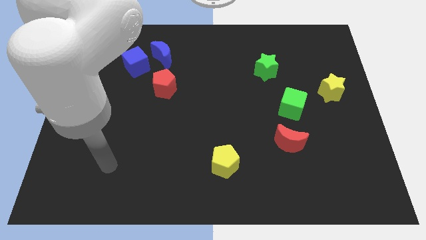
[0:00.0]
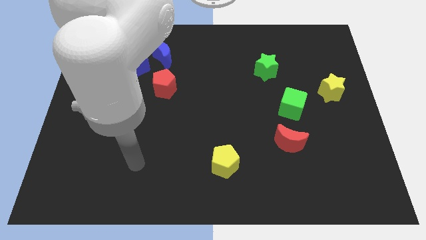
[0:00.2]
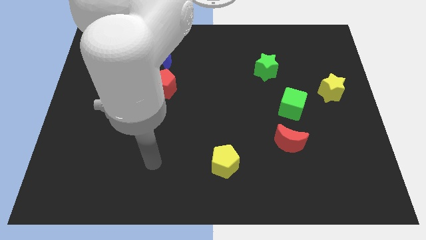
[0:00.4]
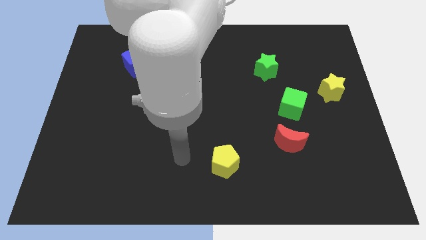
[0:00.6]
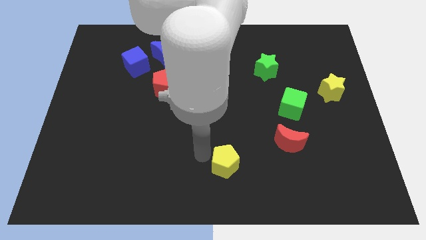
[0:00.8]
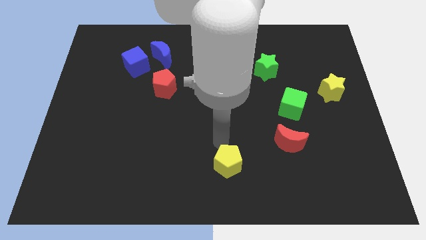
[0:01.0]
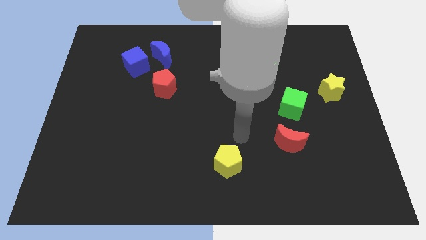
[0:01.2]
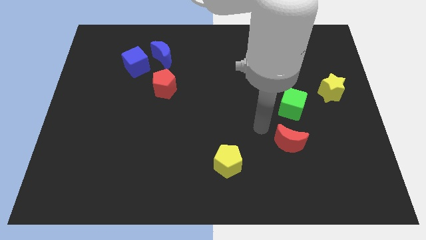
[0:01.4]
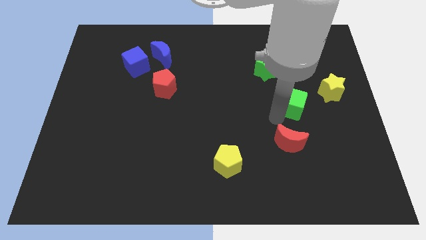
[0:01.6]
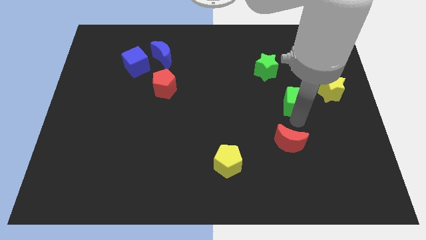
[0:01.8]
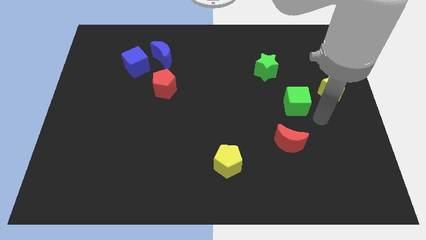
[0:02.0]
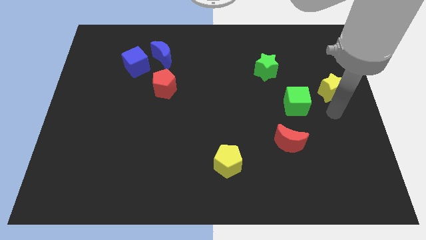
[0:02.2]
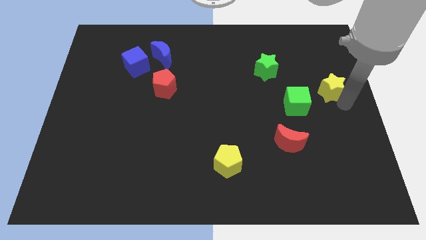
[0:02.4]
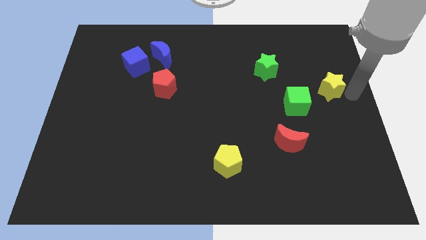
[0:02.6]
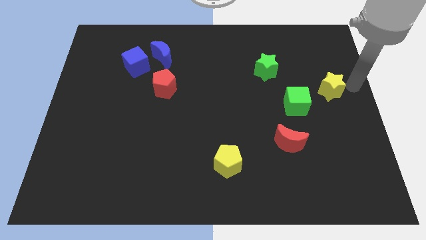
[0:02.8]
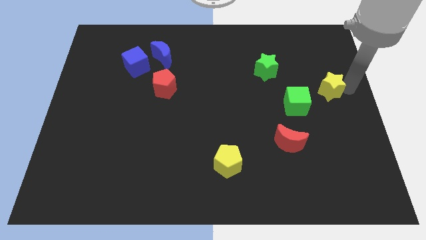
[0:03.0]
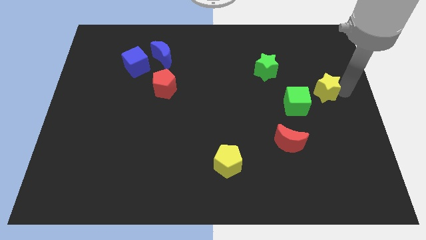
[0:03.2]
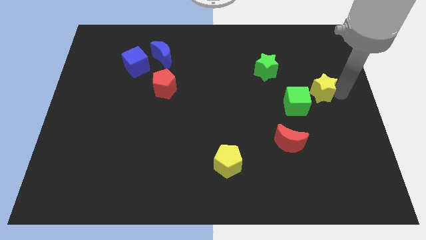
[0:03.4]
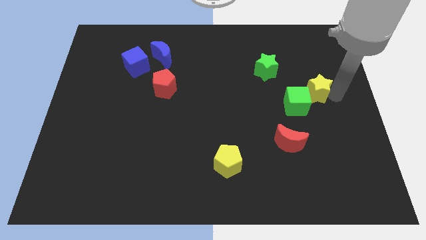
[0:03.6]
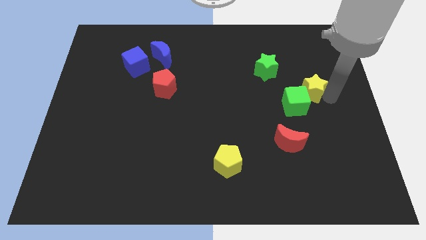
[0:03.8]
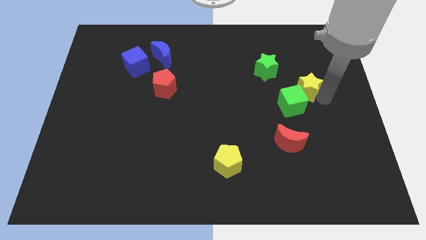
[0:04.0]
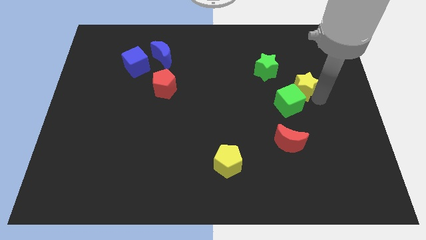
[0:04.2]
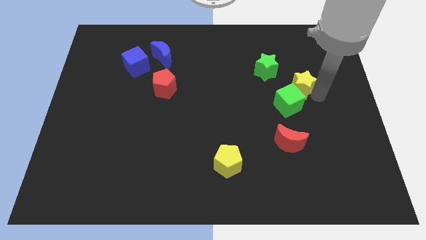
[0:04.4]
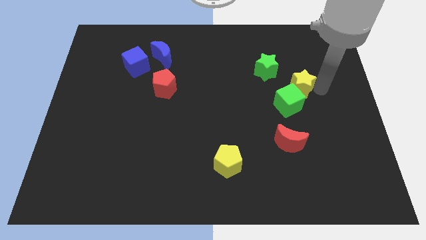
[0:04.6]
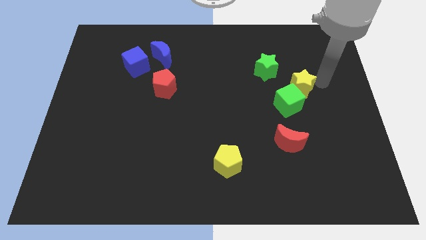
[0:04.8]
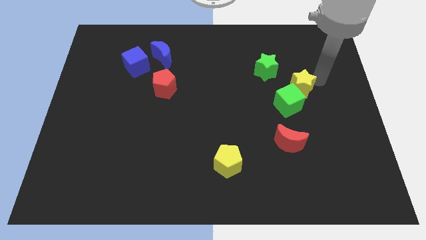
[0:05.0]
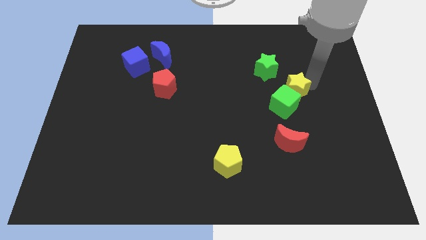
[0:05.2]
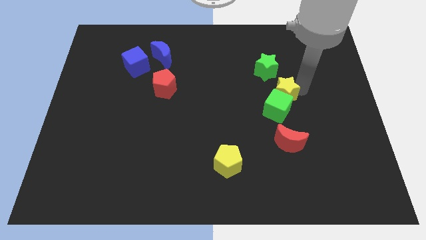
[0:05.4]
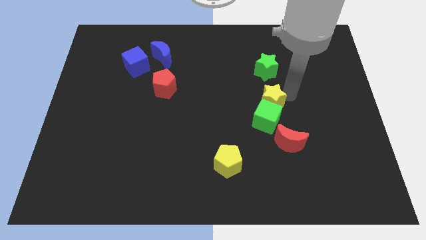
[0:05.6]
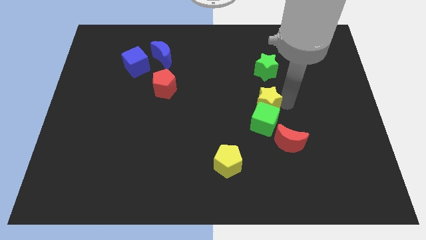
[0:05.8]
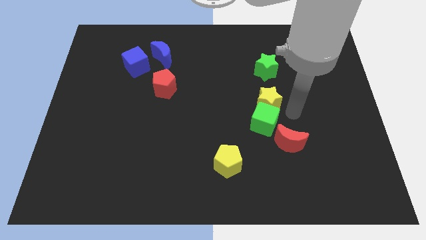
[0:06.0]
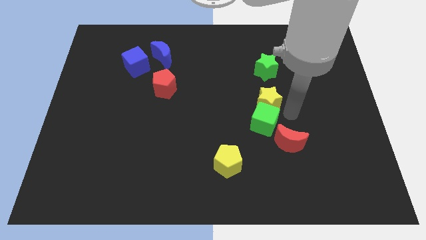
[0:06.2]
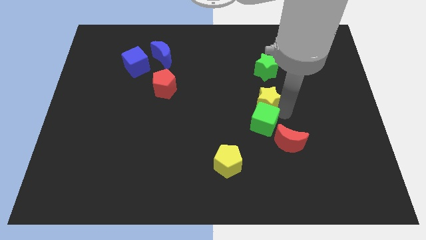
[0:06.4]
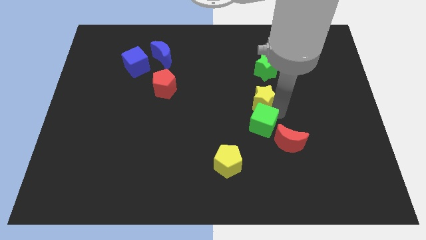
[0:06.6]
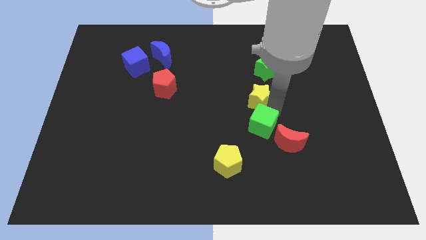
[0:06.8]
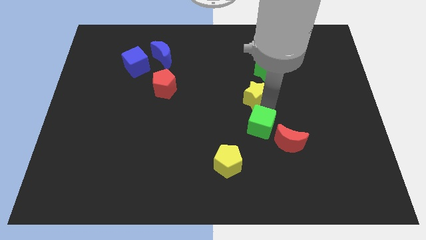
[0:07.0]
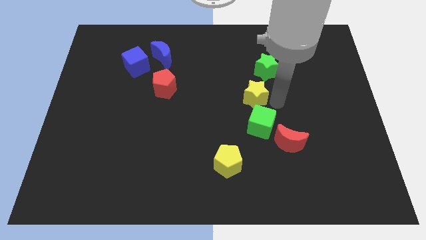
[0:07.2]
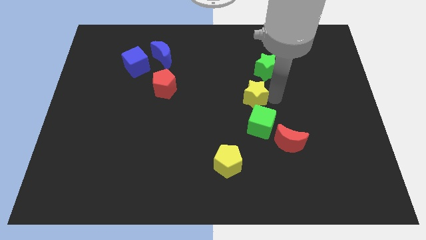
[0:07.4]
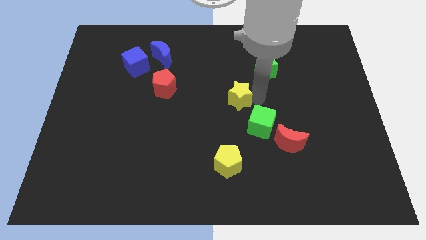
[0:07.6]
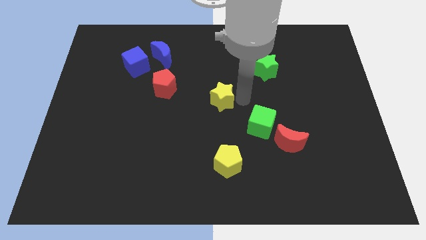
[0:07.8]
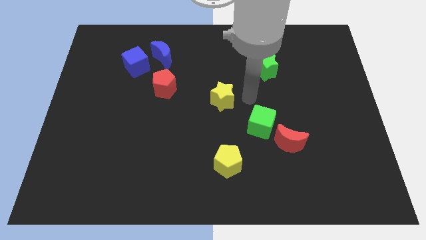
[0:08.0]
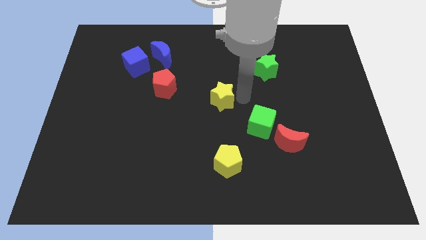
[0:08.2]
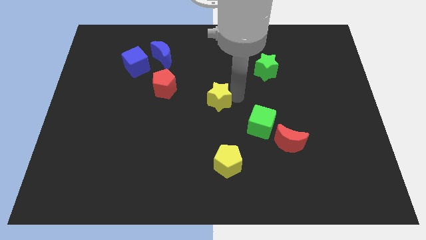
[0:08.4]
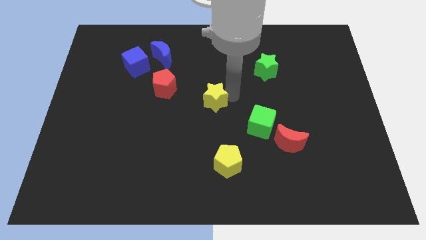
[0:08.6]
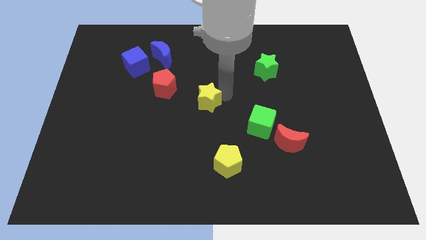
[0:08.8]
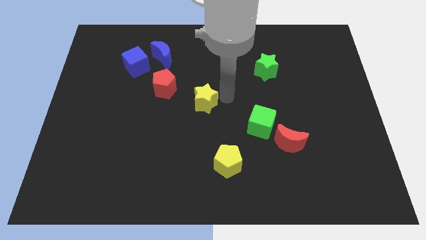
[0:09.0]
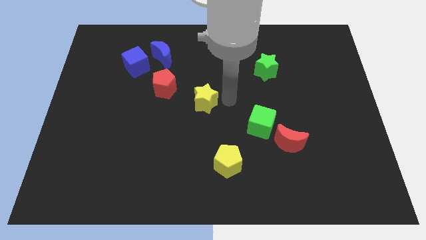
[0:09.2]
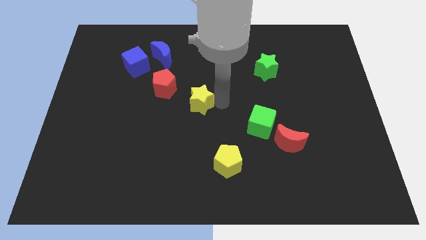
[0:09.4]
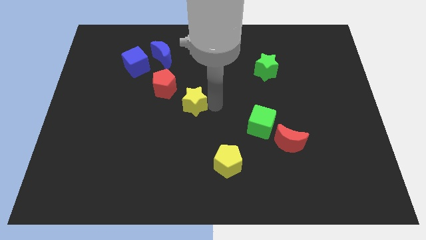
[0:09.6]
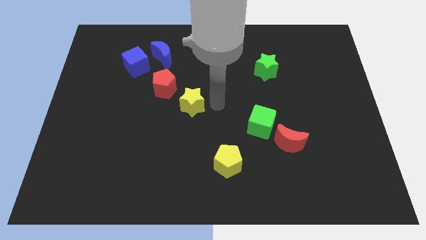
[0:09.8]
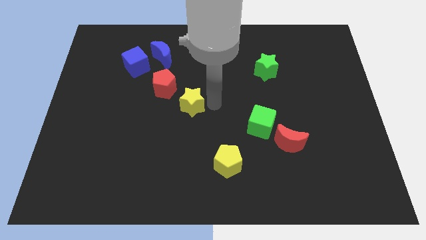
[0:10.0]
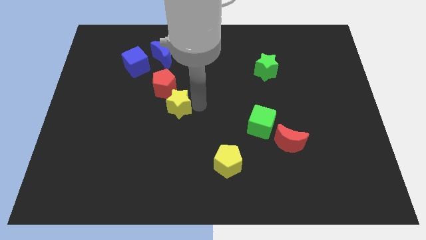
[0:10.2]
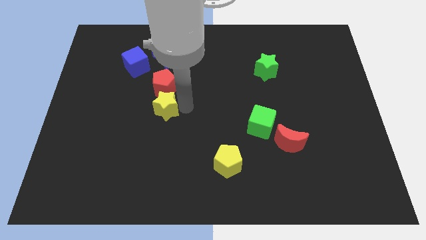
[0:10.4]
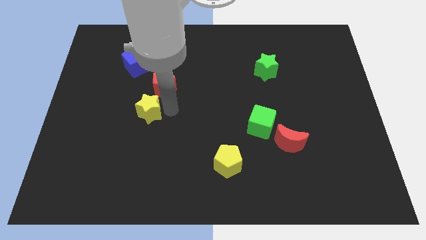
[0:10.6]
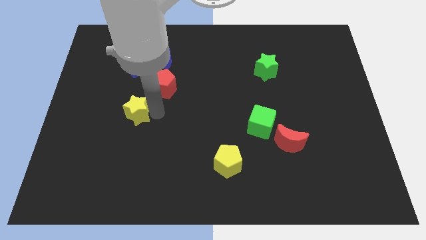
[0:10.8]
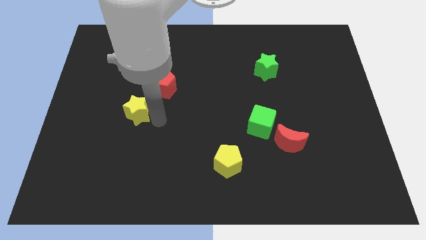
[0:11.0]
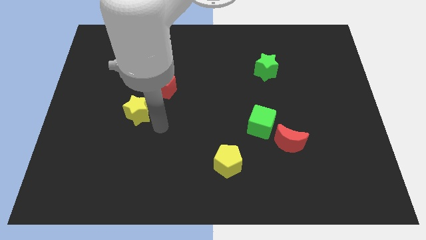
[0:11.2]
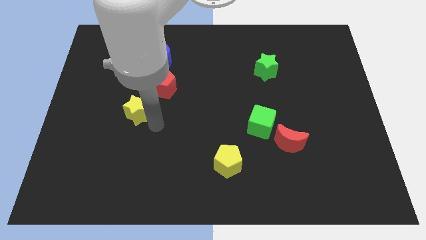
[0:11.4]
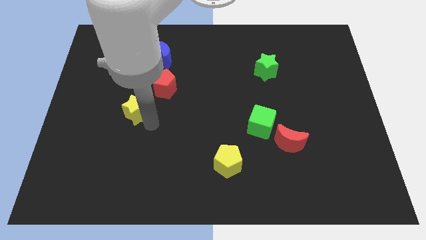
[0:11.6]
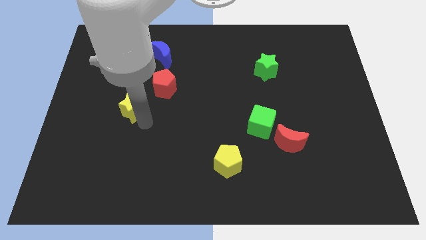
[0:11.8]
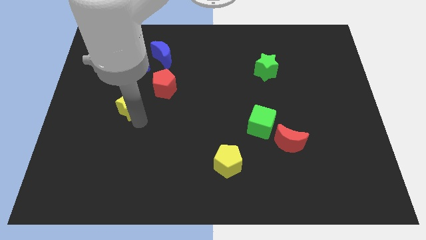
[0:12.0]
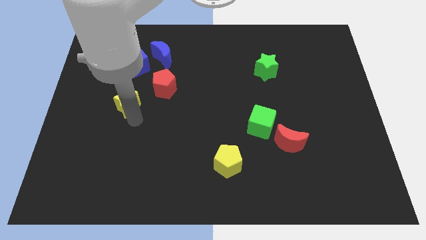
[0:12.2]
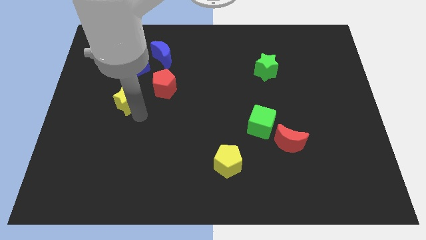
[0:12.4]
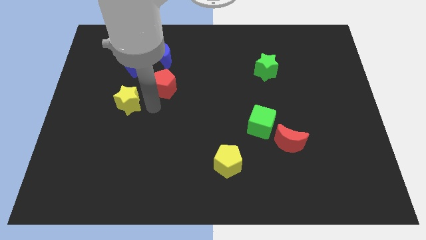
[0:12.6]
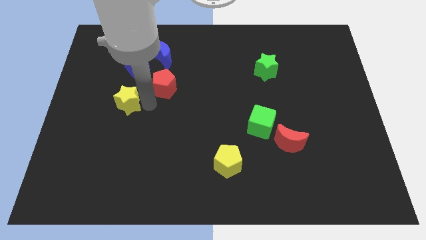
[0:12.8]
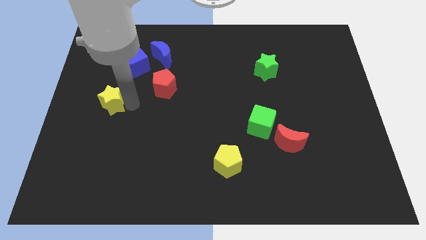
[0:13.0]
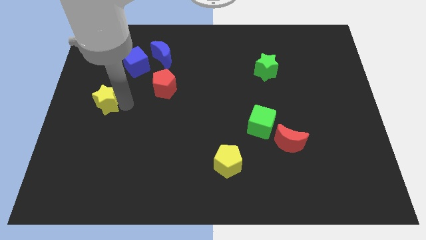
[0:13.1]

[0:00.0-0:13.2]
move the yellow star to the left side
